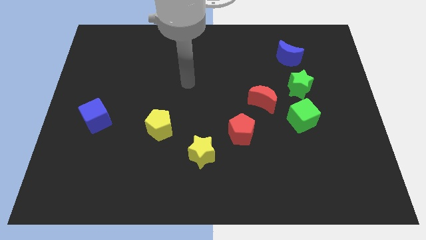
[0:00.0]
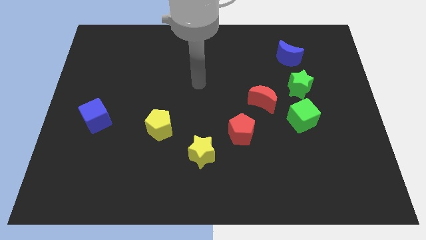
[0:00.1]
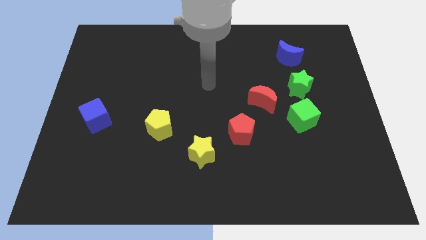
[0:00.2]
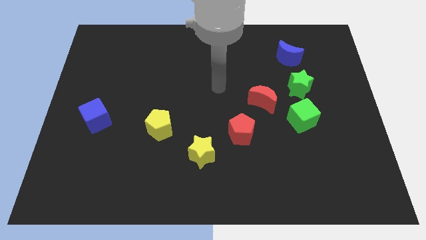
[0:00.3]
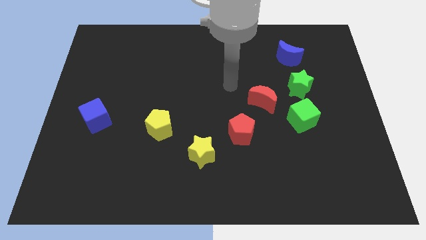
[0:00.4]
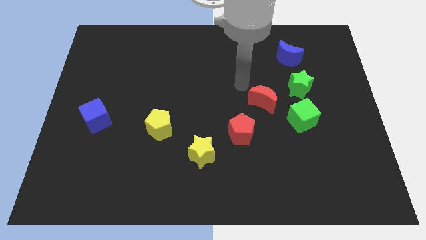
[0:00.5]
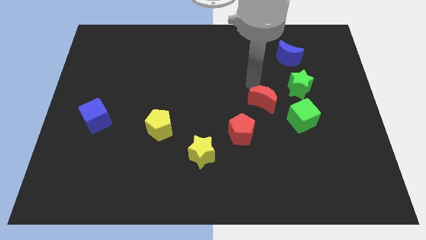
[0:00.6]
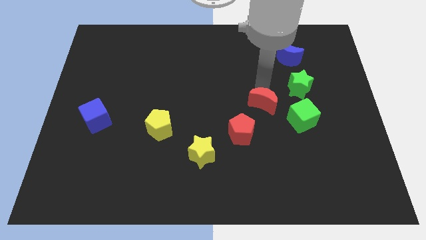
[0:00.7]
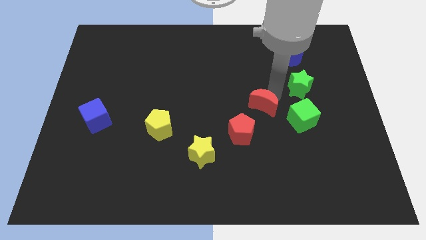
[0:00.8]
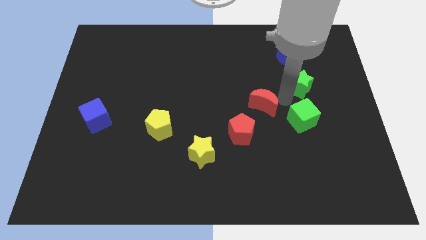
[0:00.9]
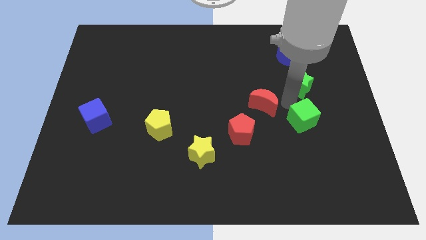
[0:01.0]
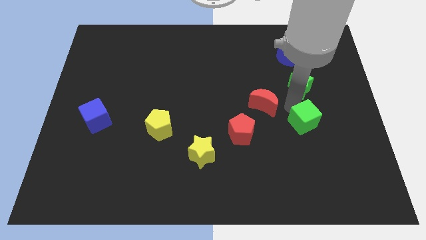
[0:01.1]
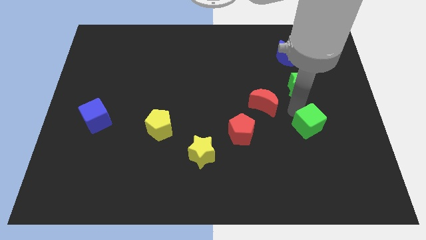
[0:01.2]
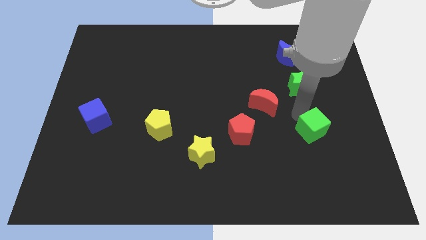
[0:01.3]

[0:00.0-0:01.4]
pull the green cube apart from the green star and red moon

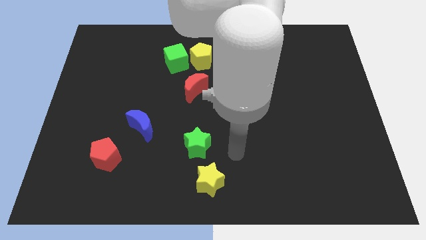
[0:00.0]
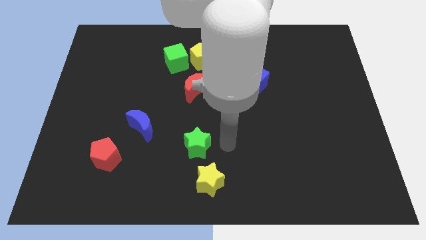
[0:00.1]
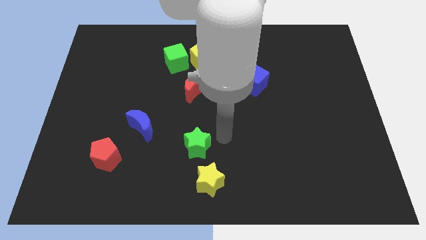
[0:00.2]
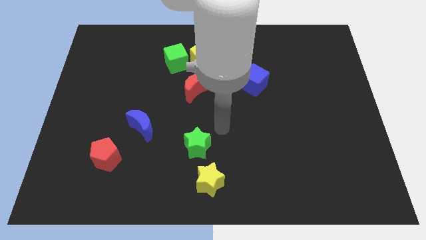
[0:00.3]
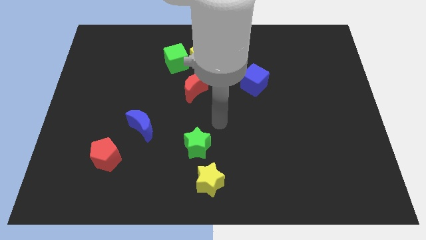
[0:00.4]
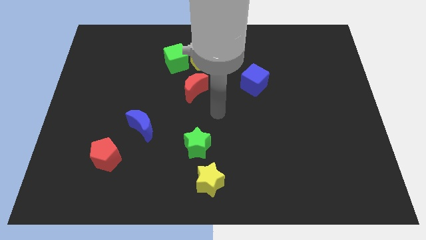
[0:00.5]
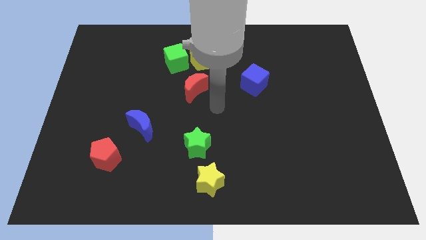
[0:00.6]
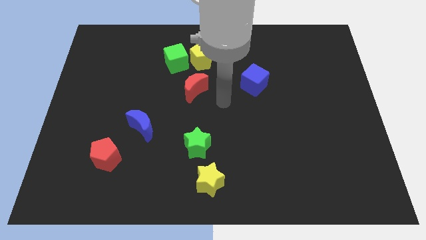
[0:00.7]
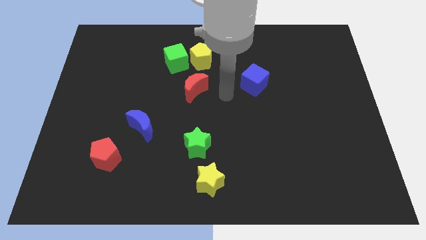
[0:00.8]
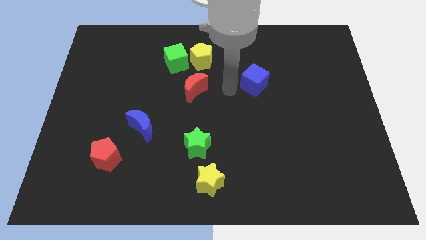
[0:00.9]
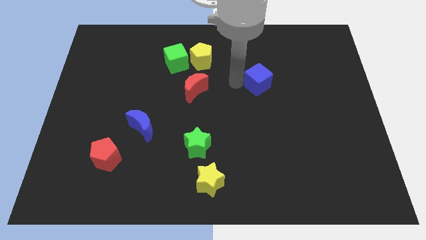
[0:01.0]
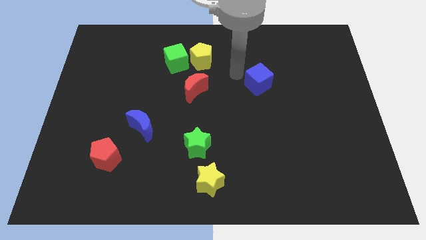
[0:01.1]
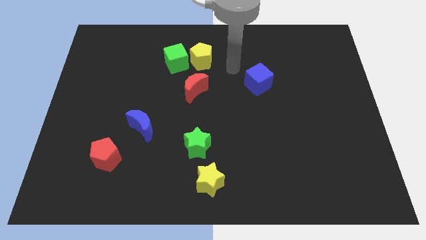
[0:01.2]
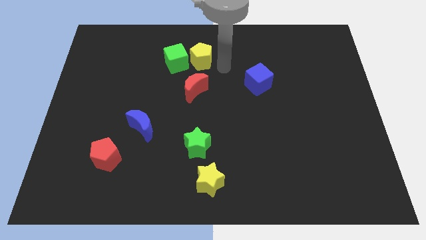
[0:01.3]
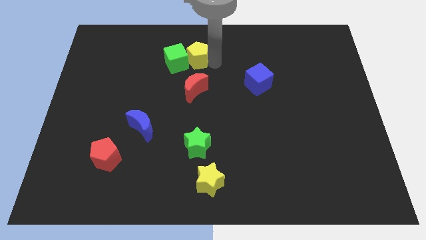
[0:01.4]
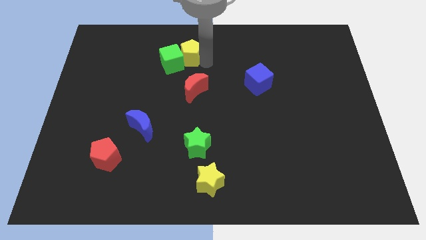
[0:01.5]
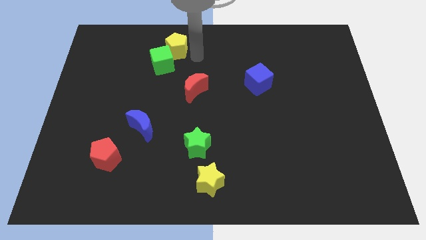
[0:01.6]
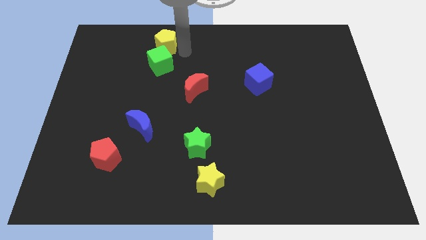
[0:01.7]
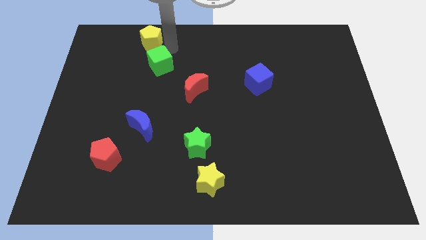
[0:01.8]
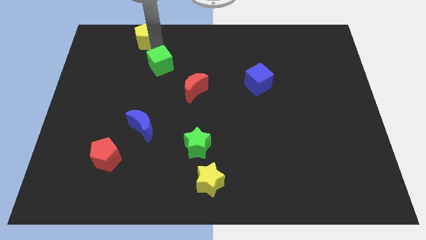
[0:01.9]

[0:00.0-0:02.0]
move the green cube away from the yellow pentagon

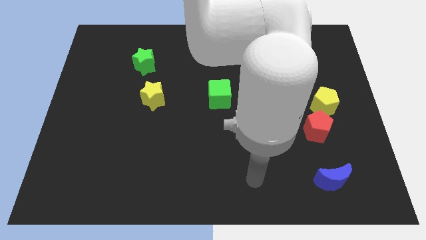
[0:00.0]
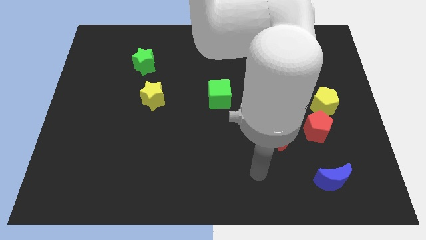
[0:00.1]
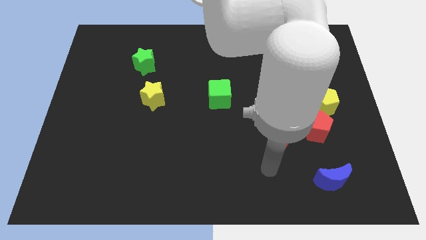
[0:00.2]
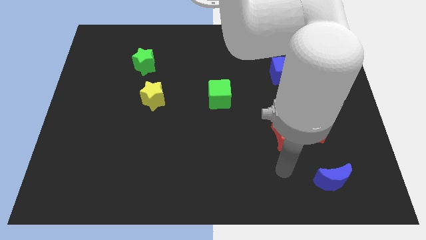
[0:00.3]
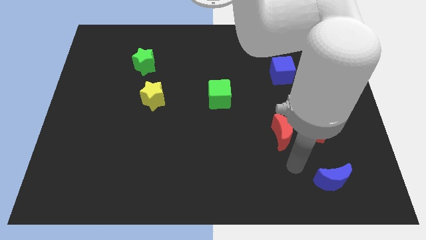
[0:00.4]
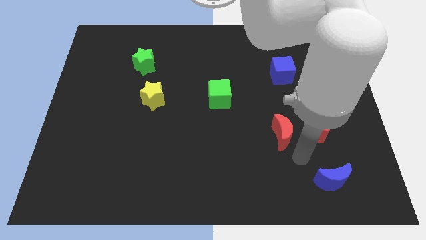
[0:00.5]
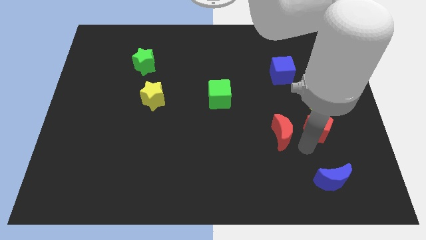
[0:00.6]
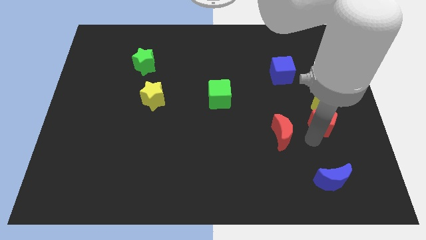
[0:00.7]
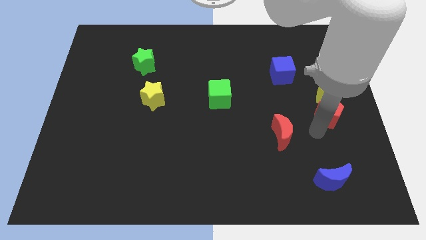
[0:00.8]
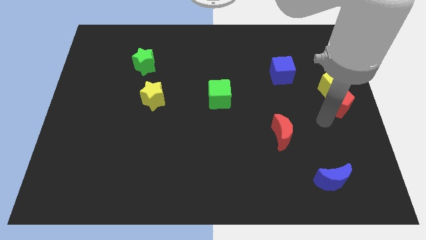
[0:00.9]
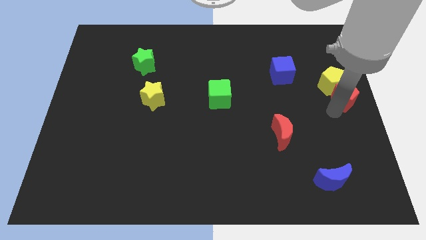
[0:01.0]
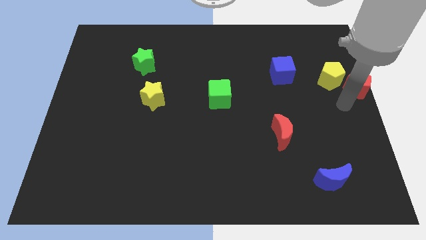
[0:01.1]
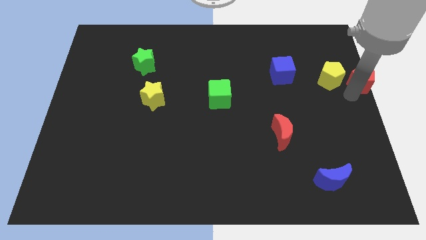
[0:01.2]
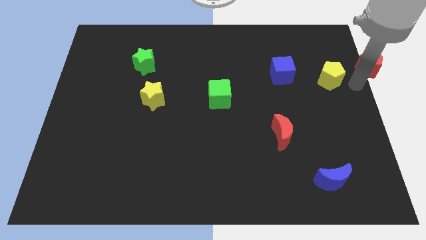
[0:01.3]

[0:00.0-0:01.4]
separate the yellow pentagon from the red pentagon

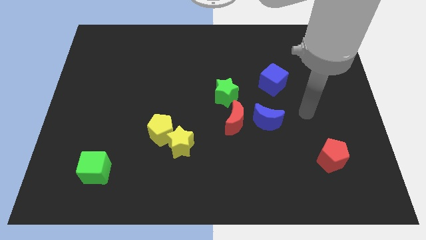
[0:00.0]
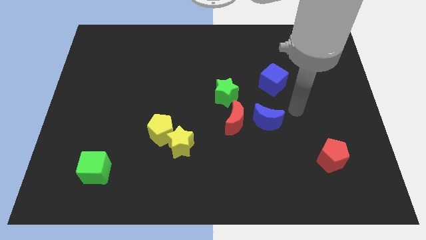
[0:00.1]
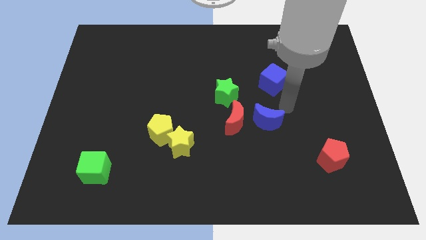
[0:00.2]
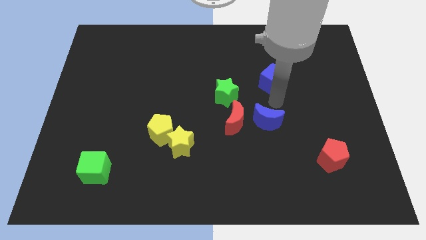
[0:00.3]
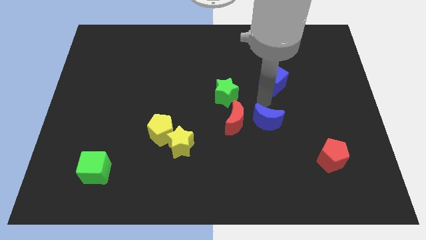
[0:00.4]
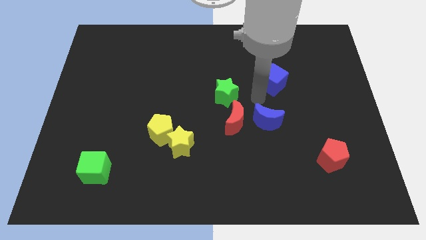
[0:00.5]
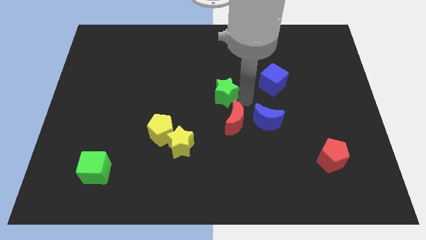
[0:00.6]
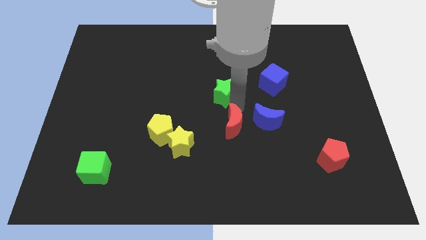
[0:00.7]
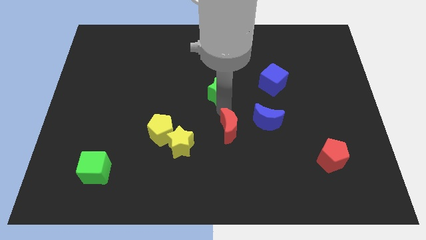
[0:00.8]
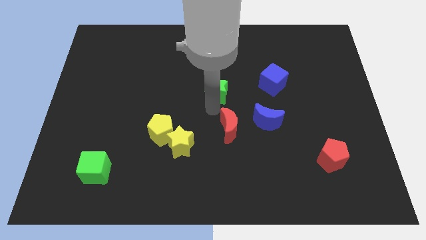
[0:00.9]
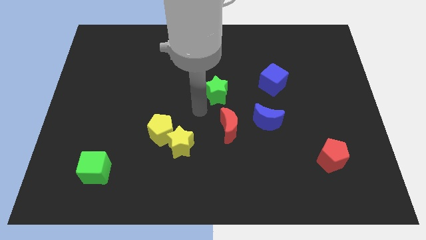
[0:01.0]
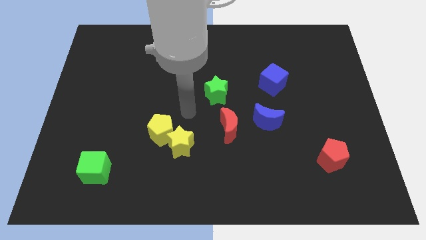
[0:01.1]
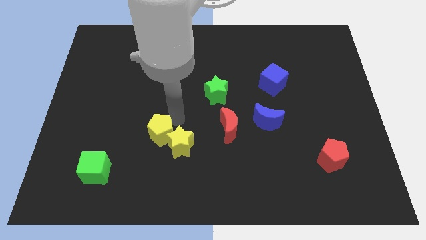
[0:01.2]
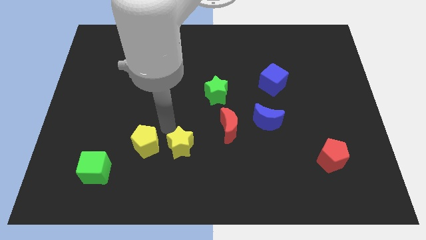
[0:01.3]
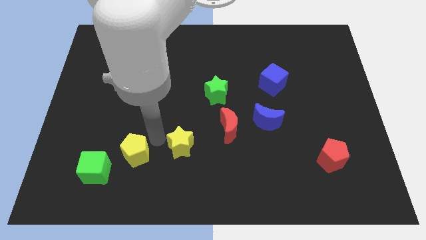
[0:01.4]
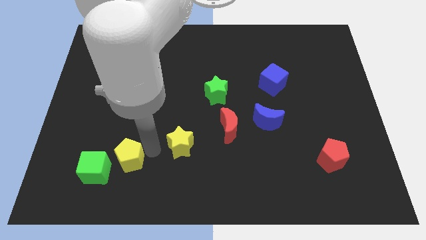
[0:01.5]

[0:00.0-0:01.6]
separate the yellow star from the yellow pentagon

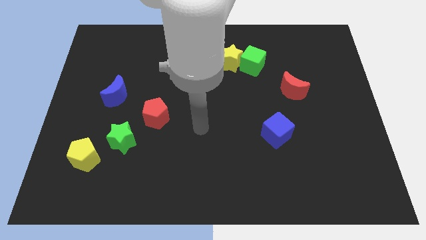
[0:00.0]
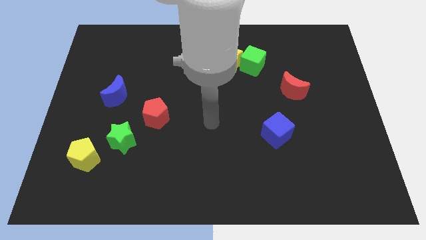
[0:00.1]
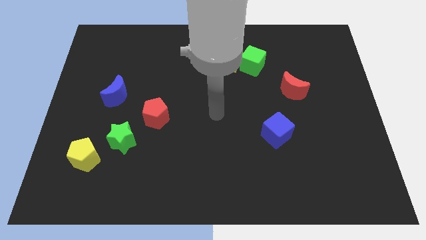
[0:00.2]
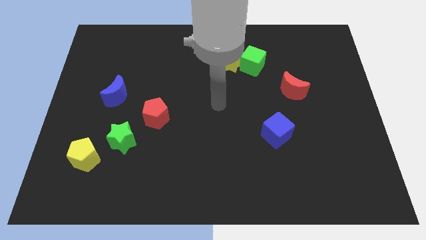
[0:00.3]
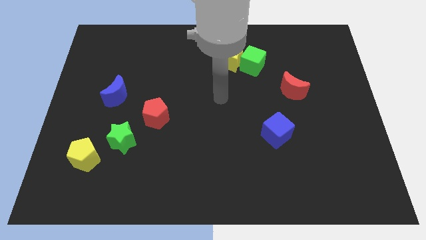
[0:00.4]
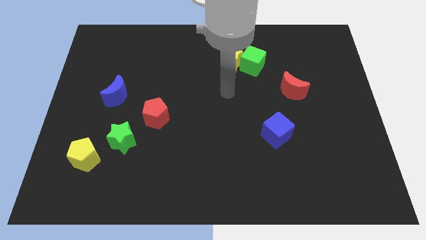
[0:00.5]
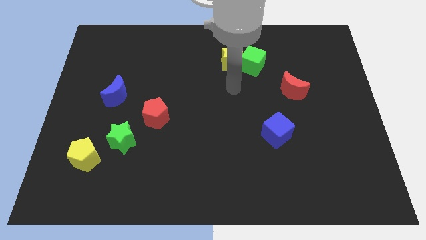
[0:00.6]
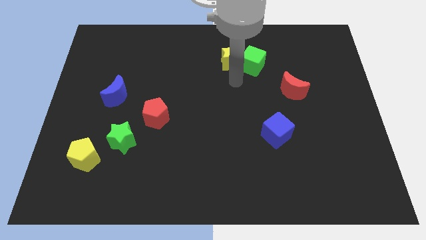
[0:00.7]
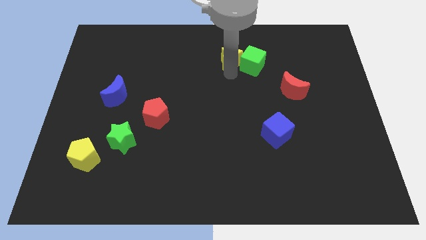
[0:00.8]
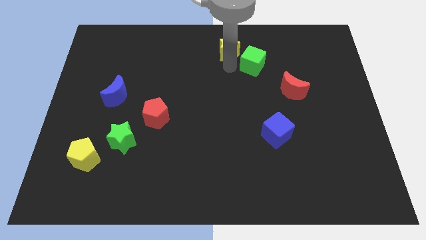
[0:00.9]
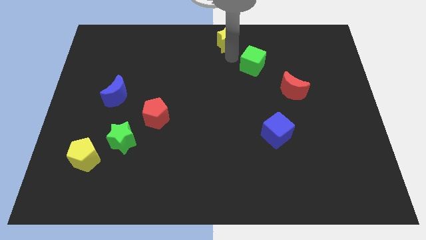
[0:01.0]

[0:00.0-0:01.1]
pull the green cube apart from the yellow star

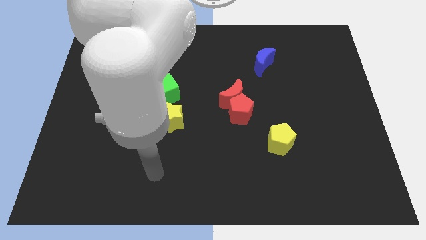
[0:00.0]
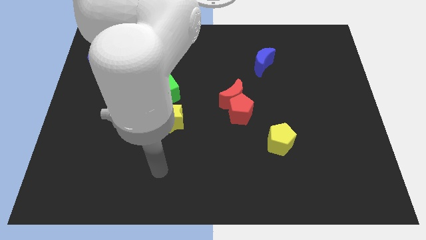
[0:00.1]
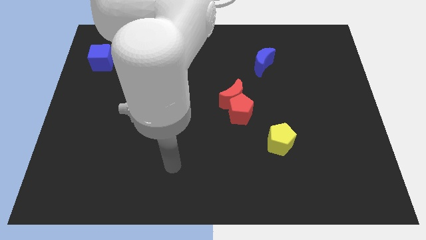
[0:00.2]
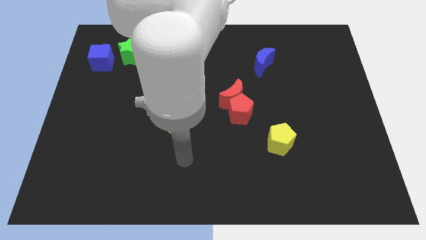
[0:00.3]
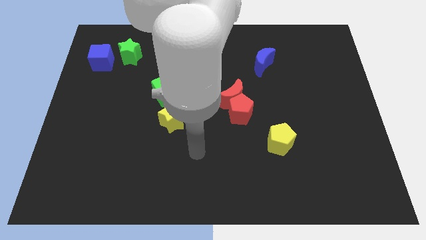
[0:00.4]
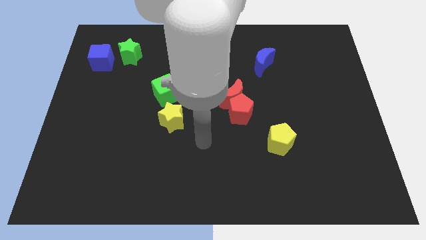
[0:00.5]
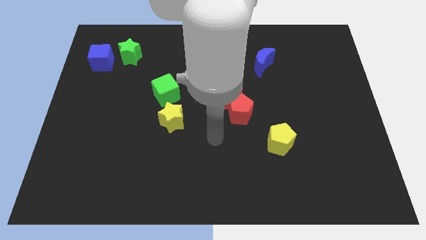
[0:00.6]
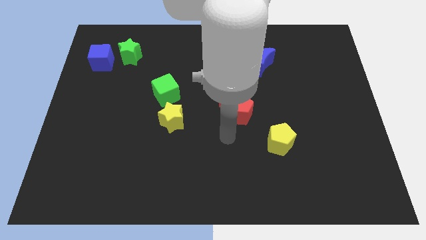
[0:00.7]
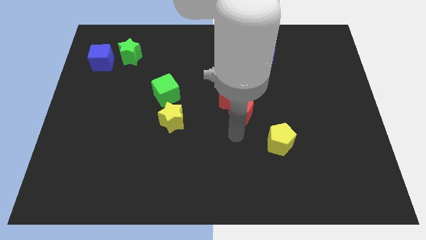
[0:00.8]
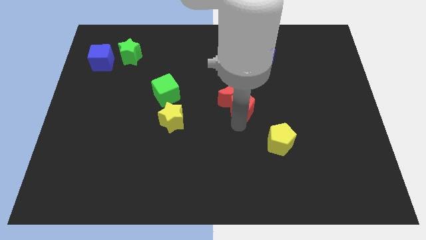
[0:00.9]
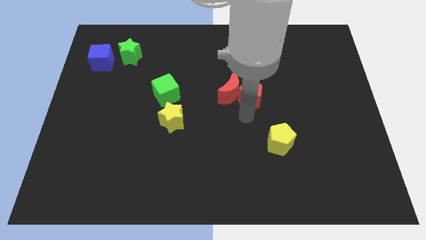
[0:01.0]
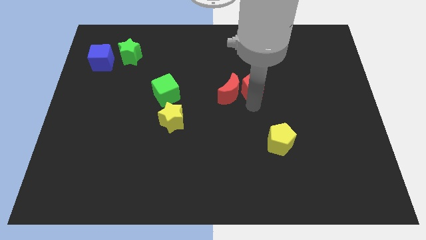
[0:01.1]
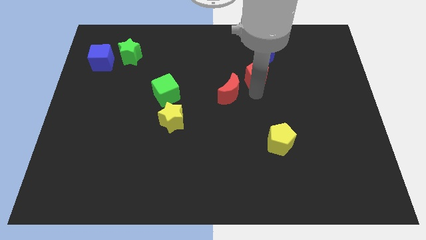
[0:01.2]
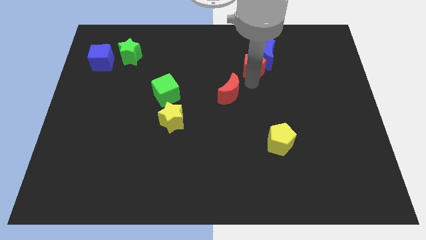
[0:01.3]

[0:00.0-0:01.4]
separate the red moon from the red pentagon
